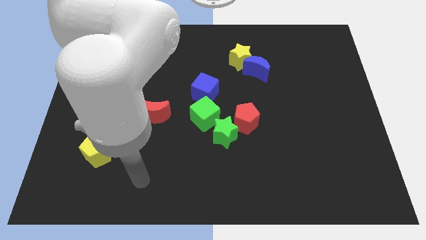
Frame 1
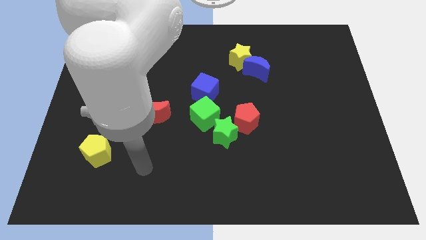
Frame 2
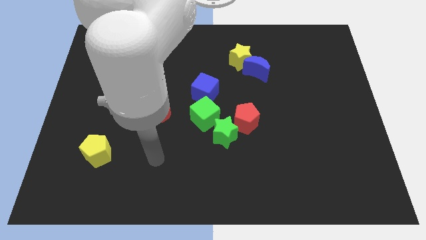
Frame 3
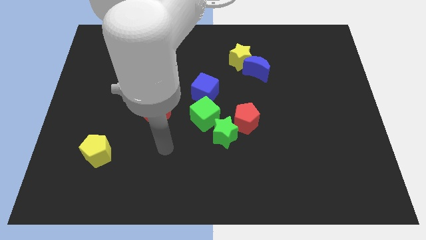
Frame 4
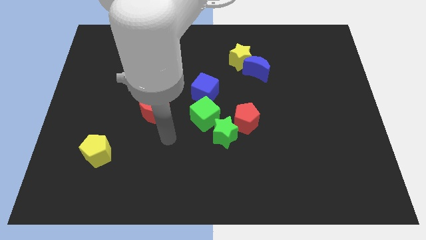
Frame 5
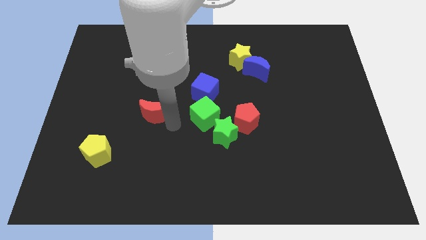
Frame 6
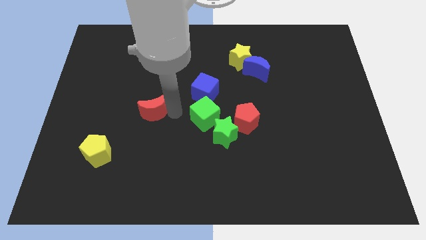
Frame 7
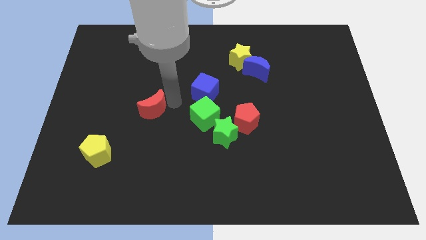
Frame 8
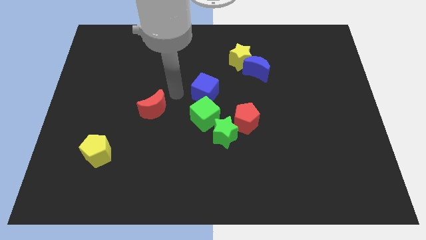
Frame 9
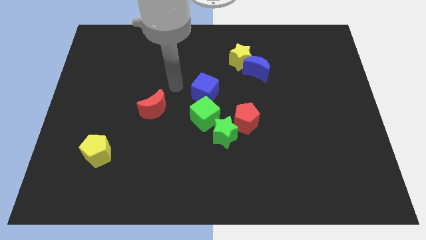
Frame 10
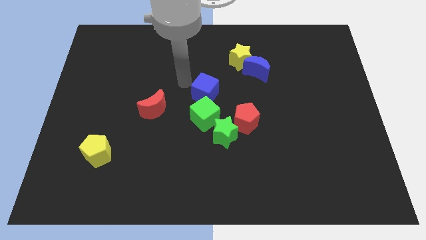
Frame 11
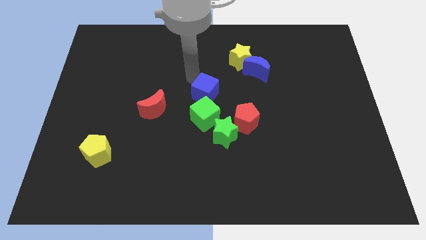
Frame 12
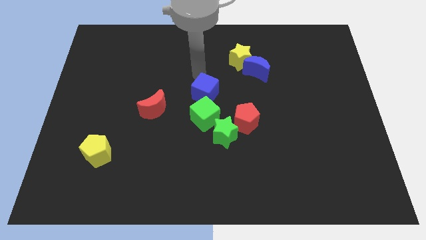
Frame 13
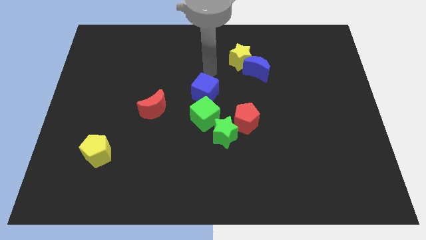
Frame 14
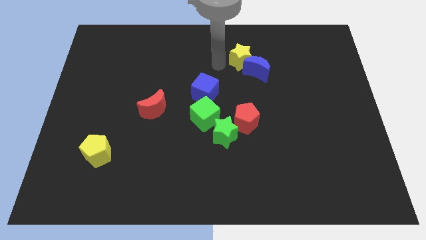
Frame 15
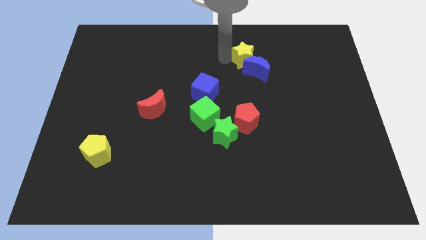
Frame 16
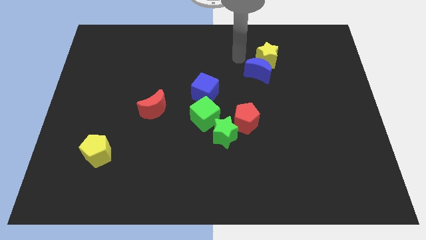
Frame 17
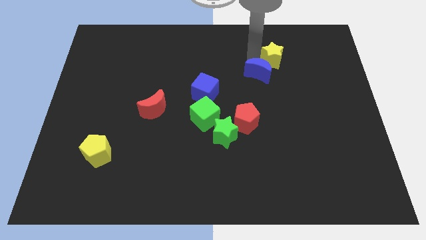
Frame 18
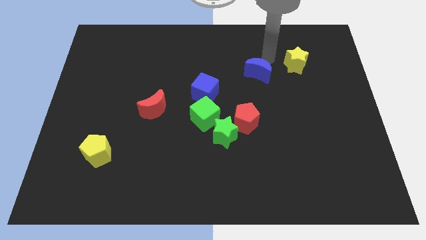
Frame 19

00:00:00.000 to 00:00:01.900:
move the blue moon away from the yellow star

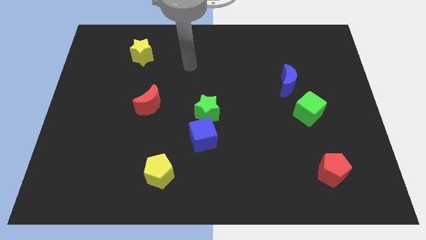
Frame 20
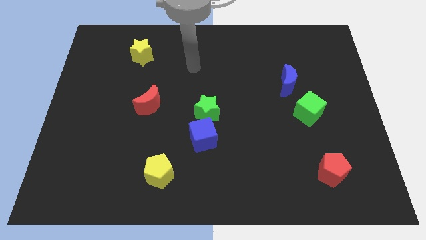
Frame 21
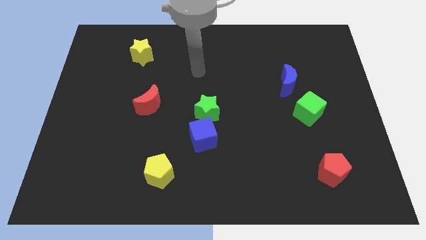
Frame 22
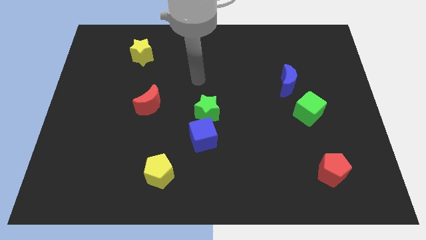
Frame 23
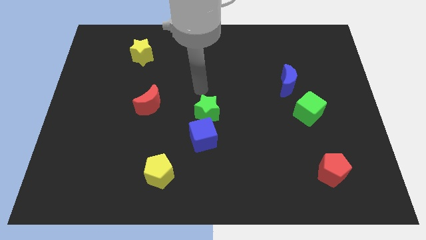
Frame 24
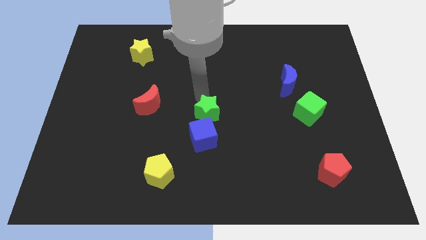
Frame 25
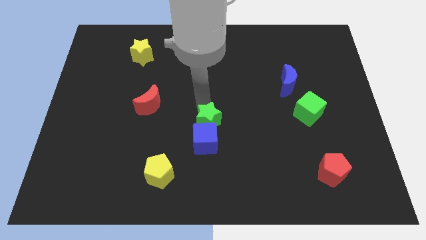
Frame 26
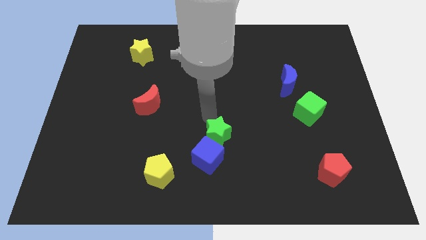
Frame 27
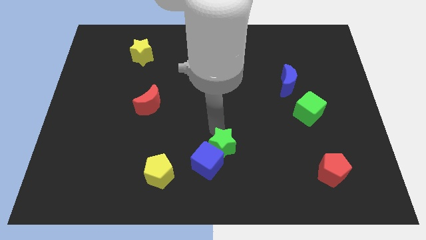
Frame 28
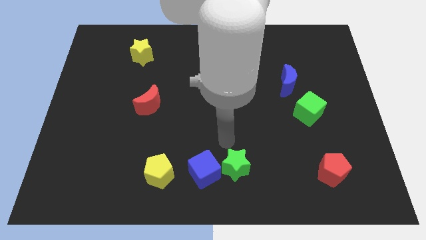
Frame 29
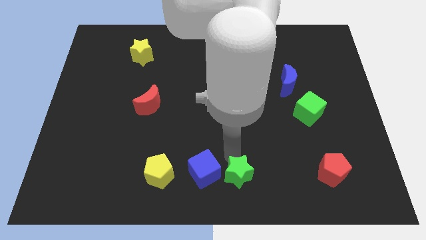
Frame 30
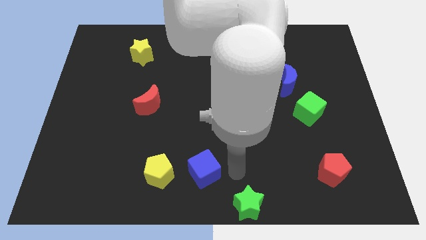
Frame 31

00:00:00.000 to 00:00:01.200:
separate the blue cube from the green star

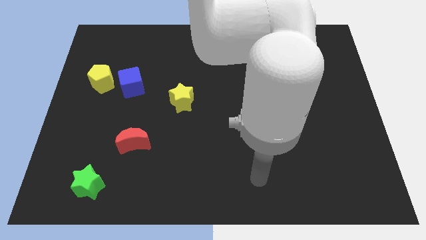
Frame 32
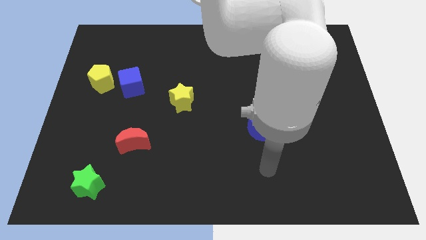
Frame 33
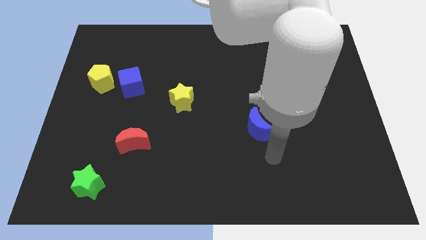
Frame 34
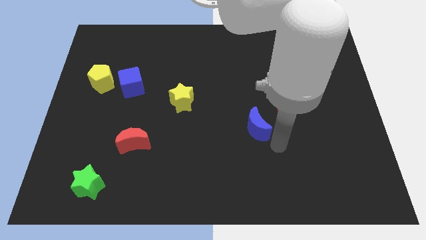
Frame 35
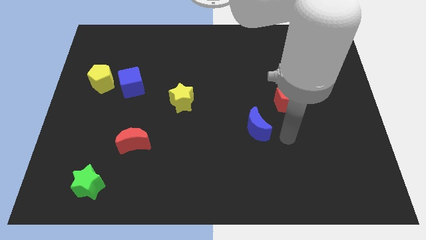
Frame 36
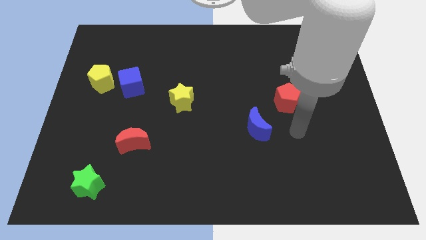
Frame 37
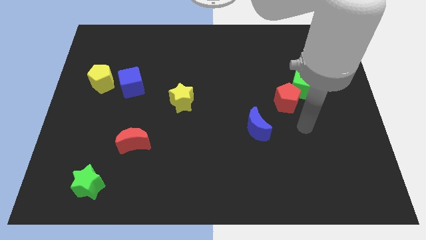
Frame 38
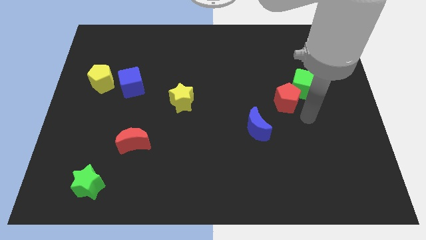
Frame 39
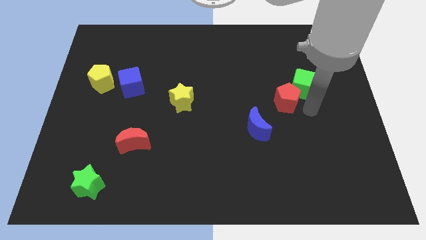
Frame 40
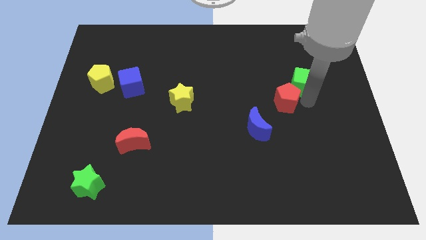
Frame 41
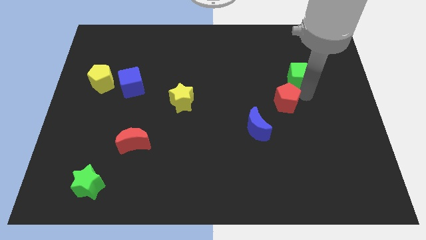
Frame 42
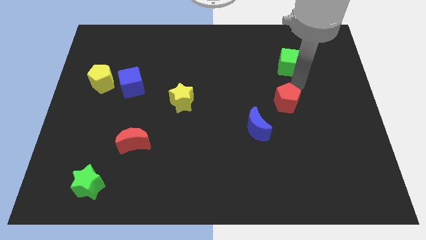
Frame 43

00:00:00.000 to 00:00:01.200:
pull the red pentagon apart from the green cube

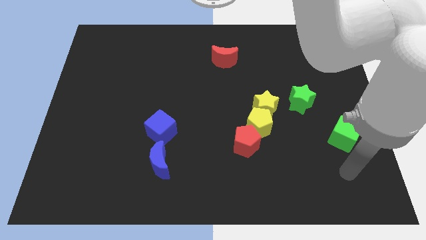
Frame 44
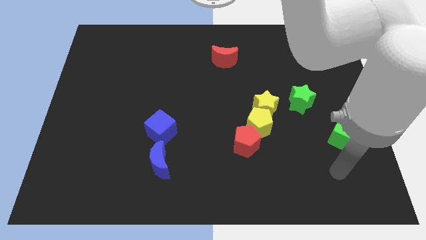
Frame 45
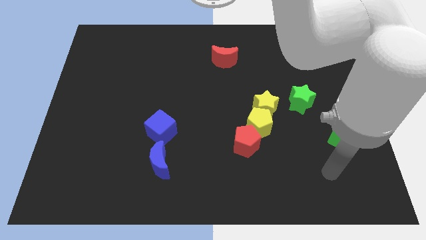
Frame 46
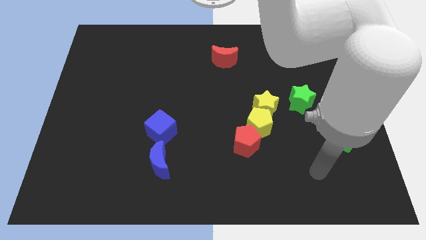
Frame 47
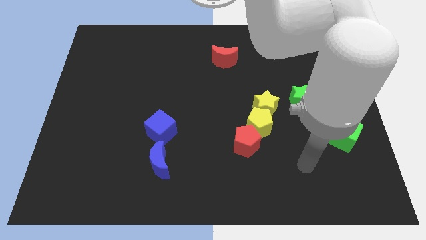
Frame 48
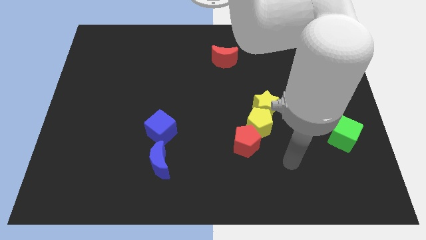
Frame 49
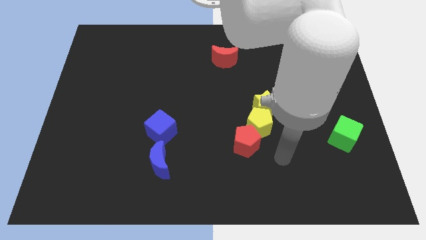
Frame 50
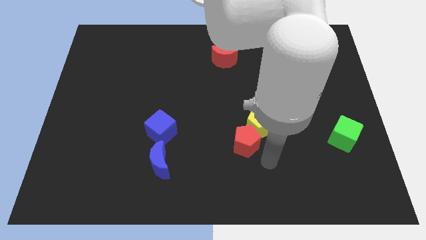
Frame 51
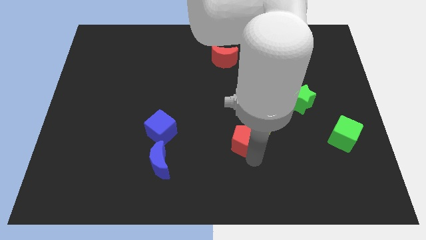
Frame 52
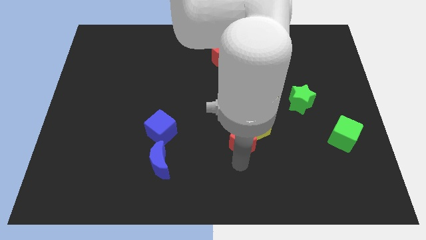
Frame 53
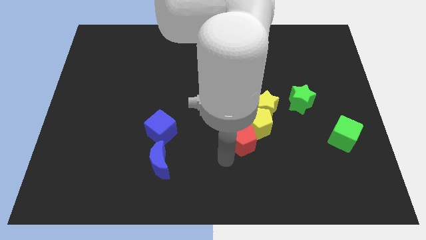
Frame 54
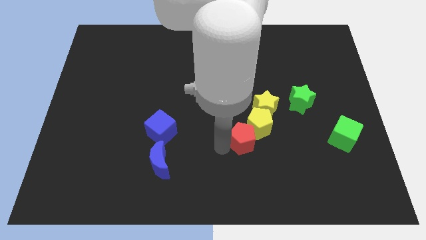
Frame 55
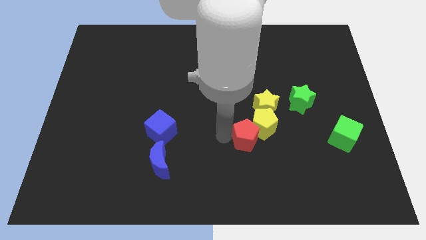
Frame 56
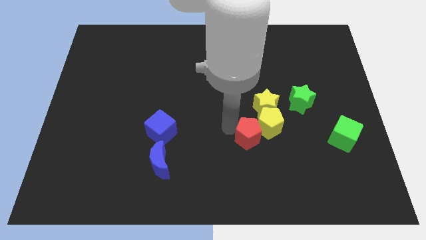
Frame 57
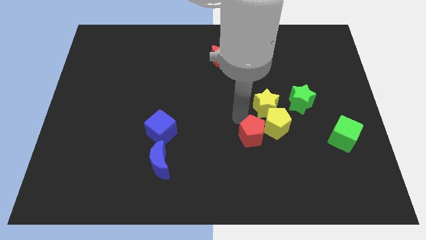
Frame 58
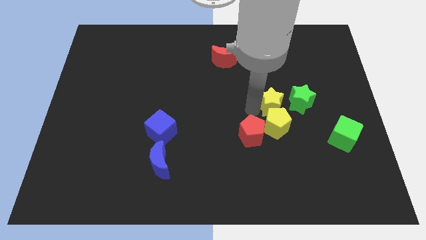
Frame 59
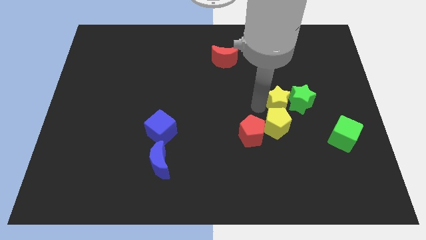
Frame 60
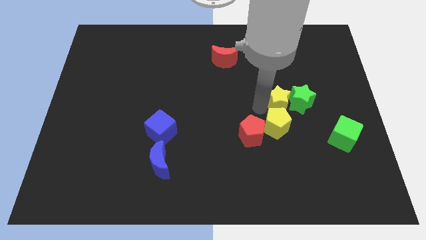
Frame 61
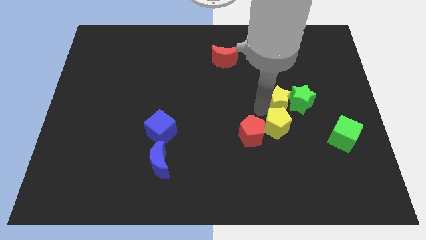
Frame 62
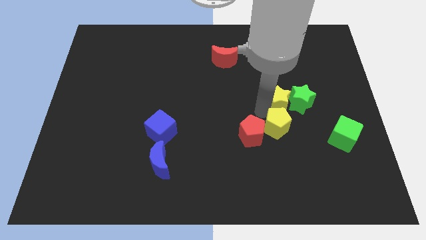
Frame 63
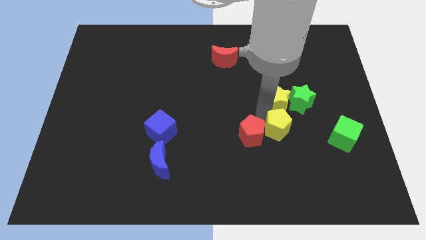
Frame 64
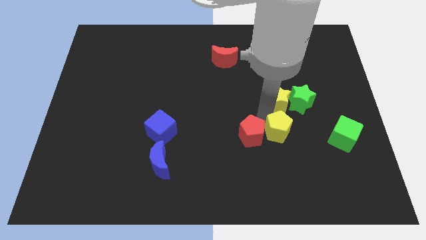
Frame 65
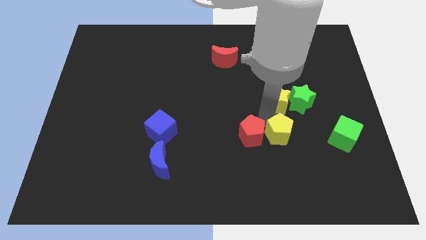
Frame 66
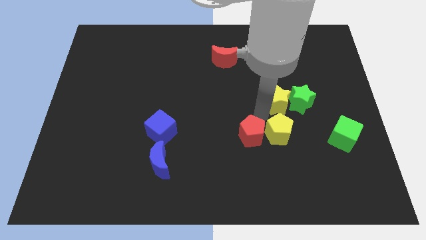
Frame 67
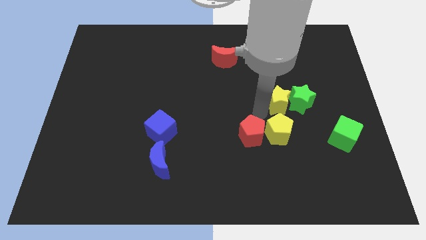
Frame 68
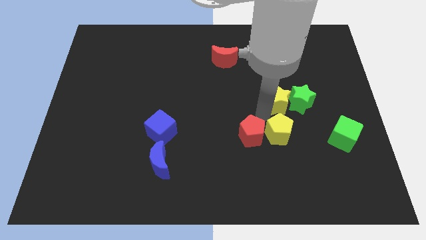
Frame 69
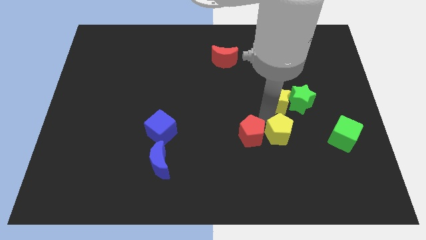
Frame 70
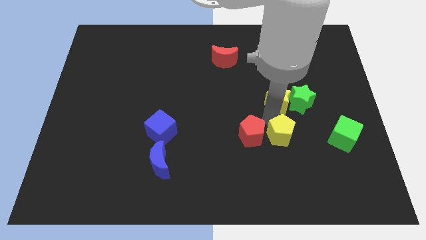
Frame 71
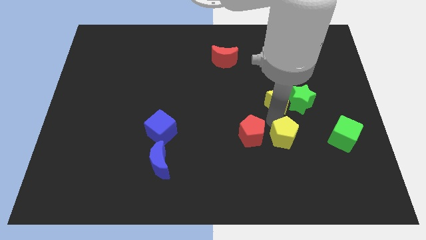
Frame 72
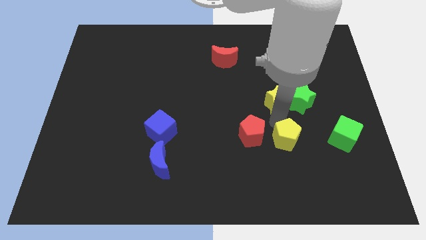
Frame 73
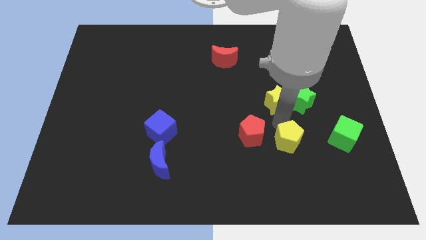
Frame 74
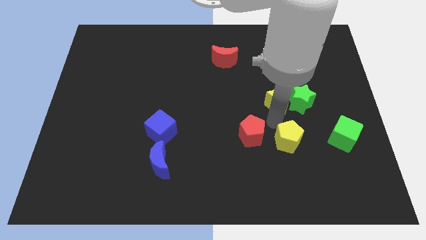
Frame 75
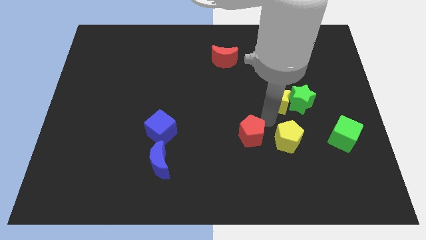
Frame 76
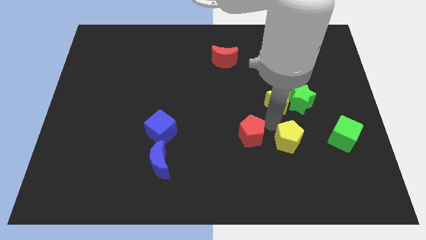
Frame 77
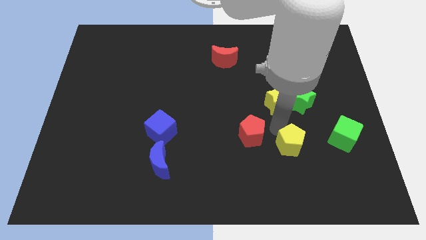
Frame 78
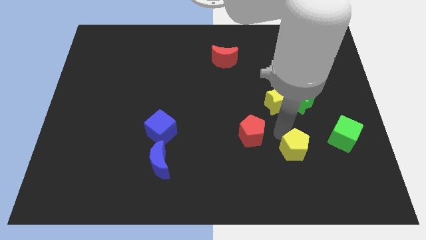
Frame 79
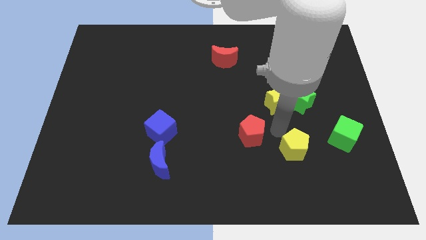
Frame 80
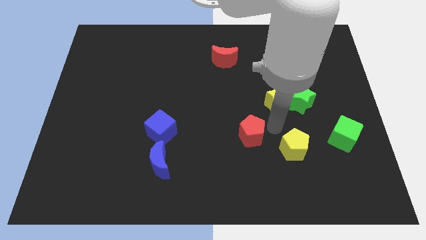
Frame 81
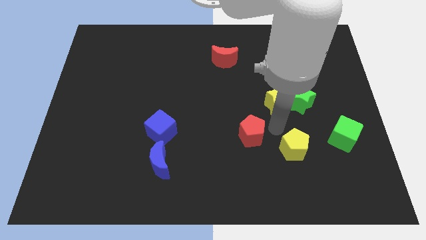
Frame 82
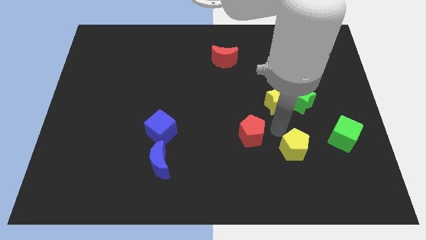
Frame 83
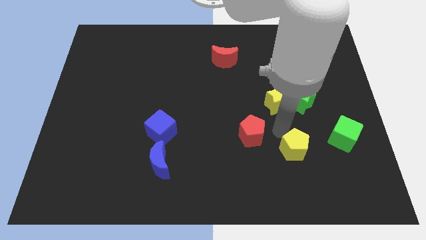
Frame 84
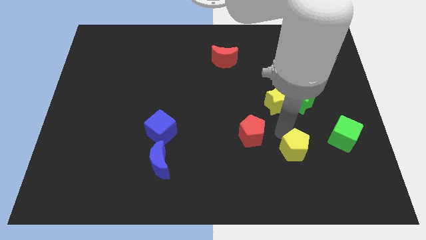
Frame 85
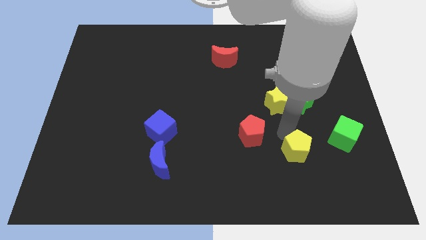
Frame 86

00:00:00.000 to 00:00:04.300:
pull the yellow pentagon apart from the yellow star and red pentagon

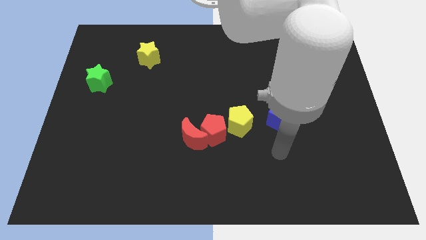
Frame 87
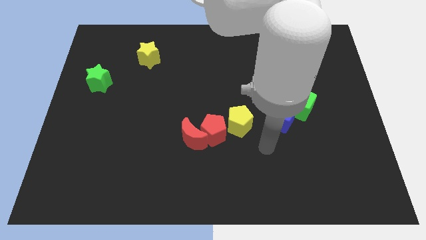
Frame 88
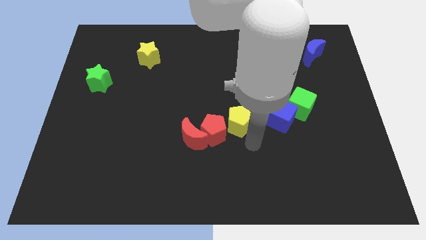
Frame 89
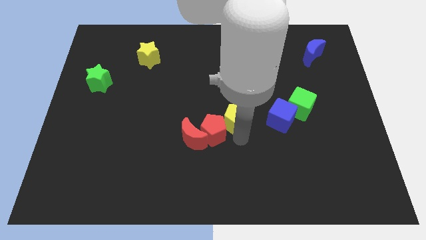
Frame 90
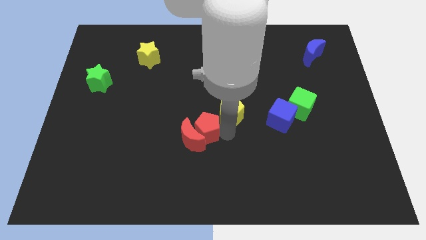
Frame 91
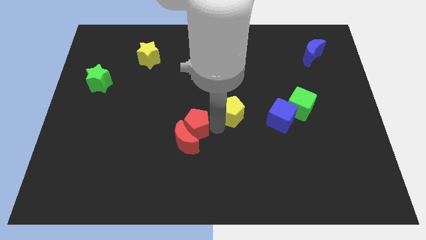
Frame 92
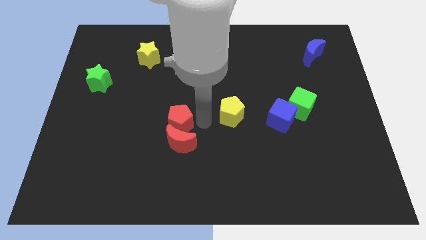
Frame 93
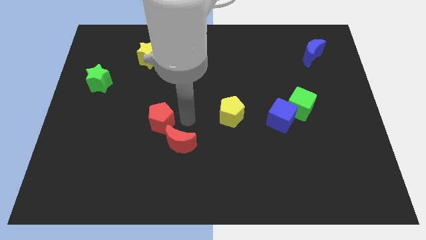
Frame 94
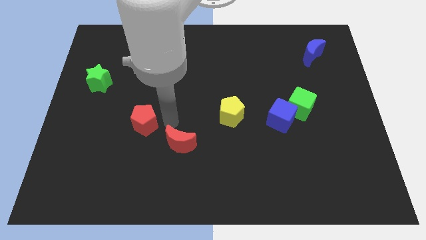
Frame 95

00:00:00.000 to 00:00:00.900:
separate the red moon from the red pentagon
